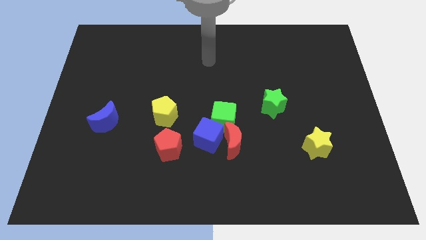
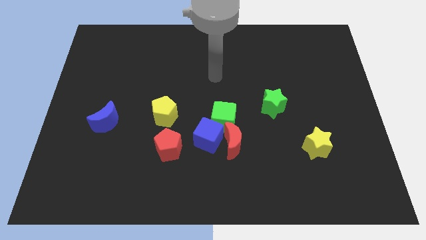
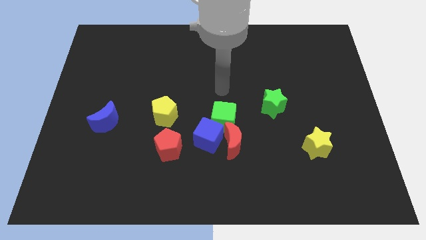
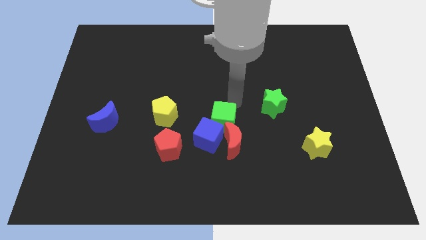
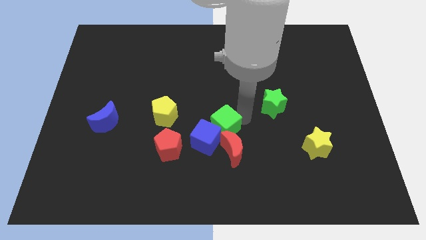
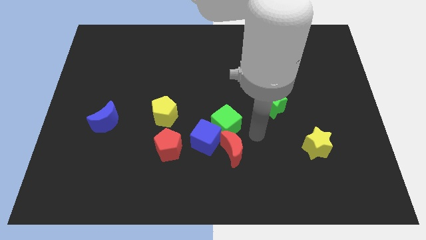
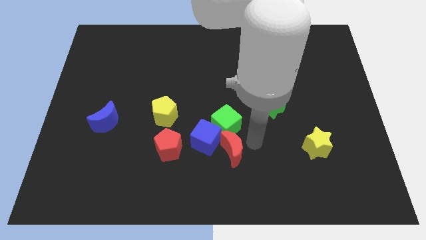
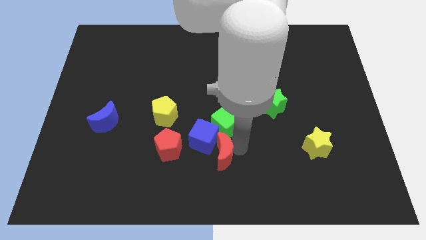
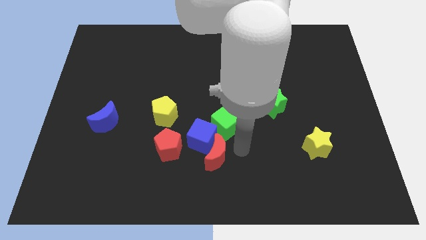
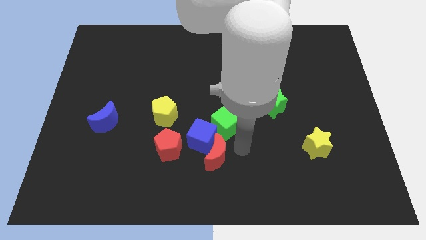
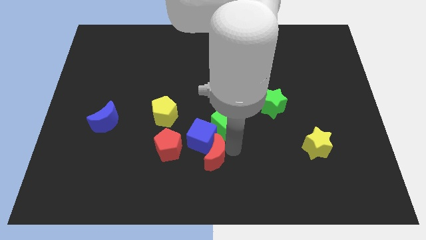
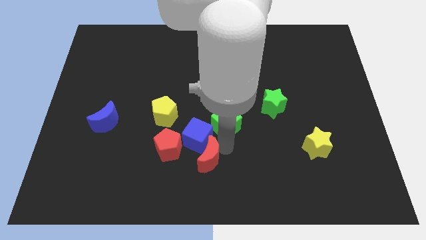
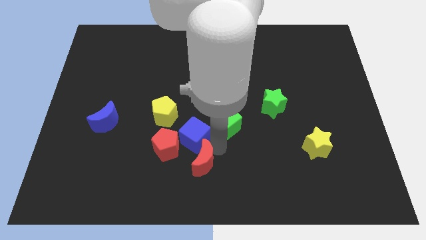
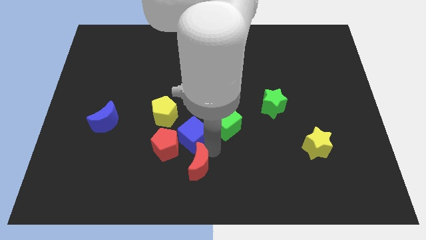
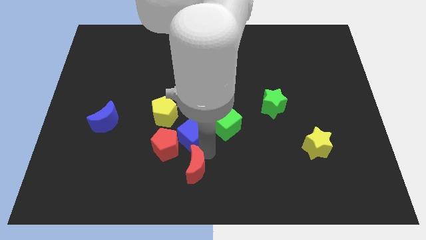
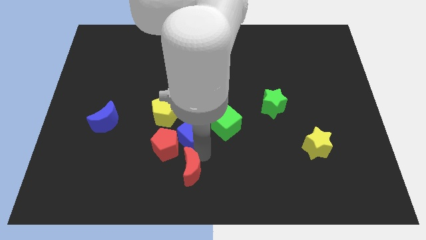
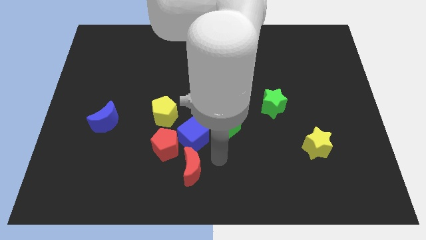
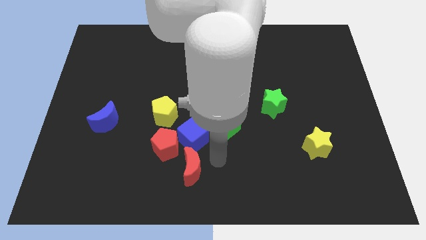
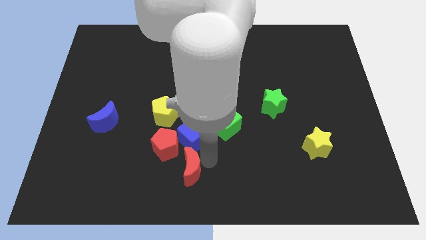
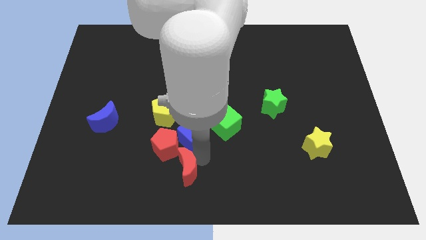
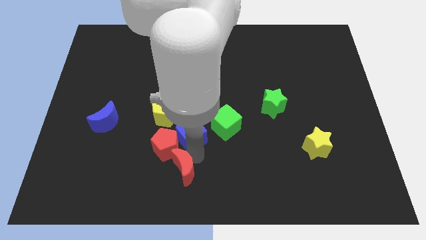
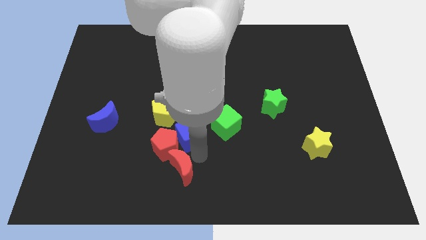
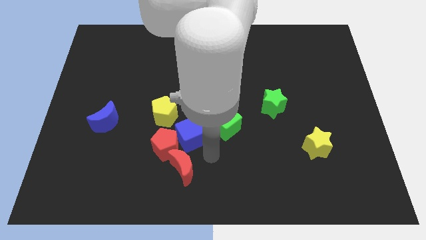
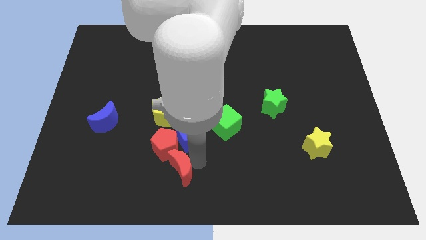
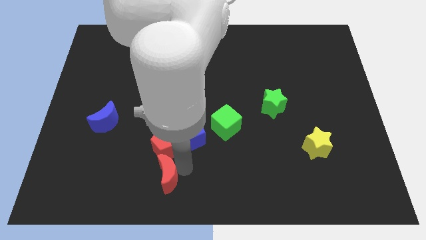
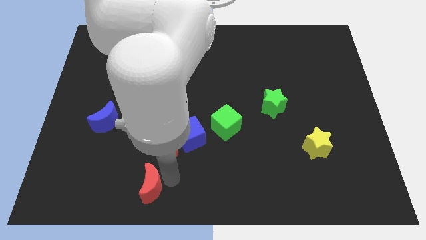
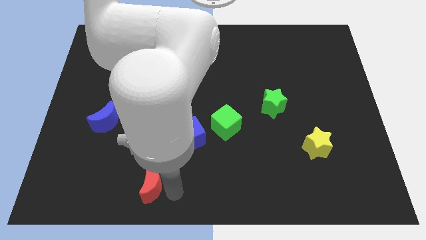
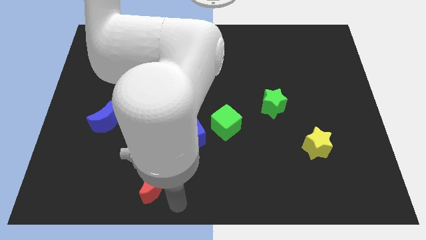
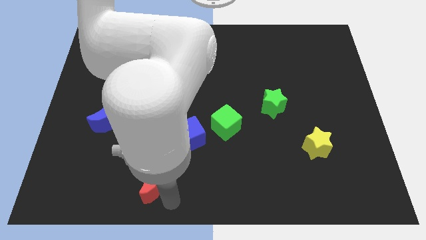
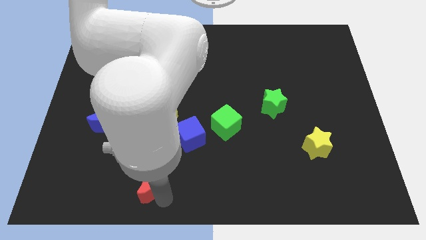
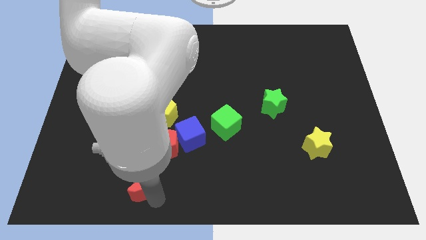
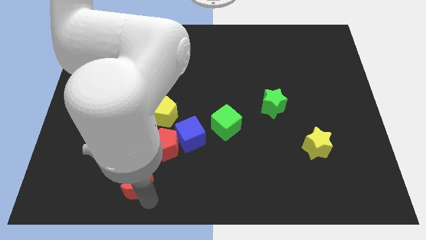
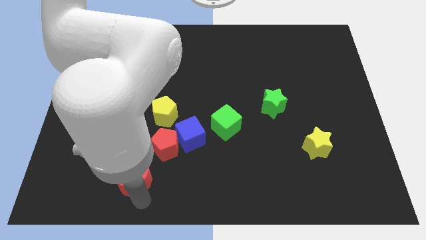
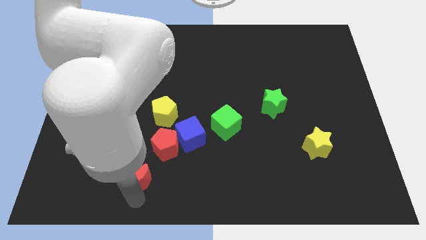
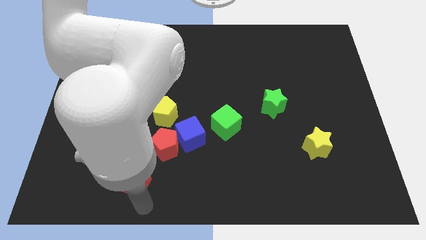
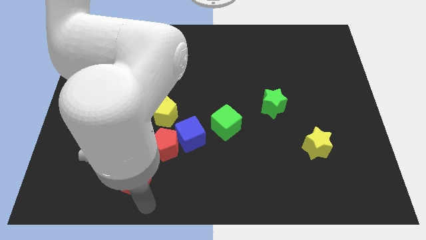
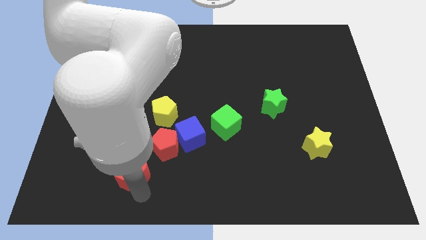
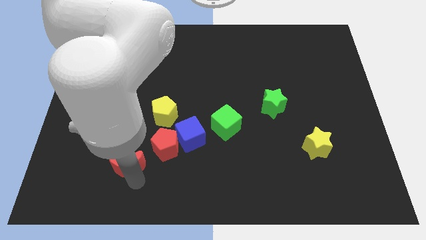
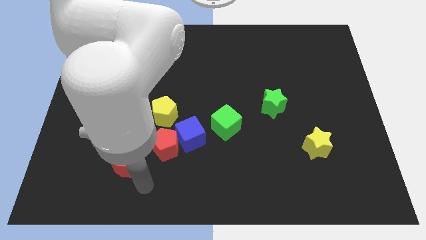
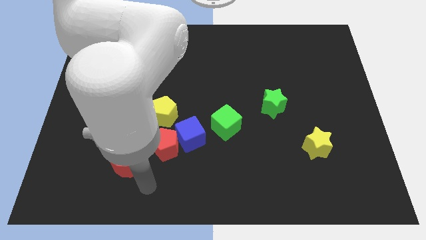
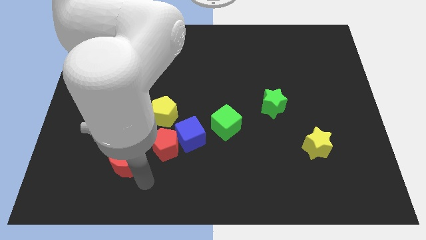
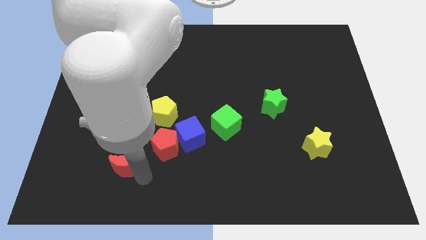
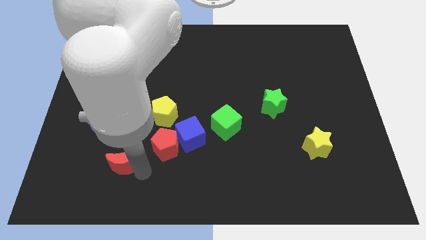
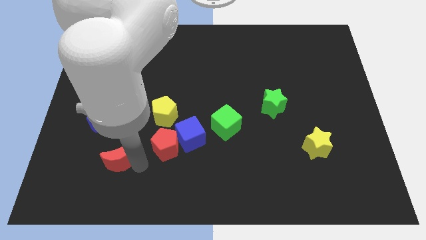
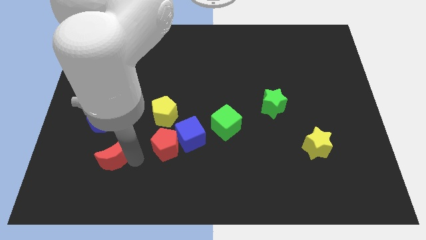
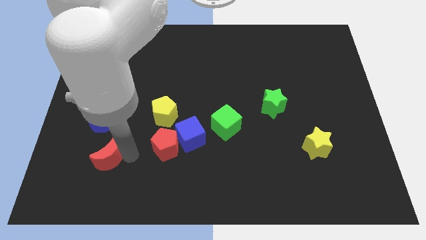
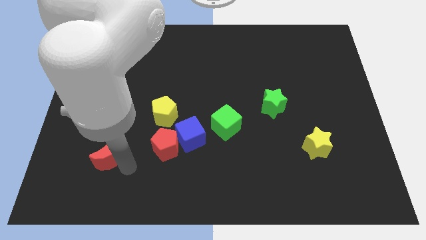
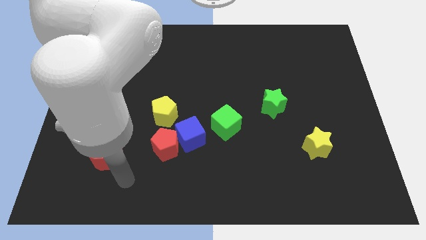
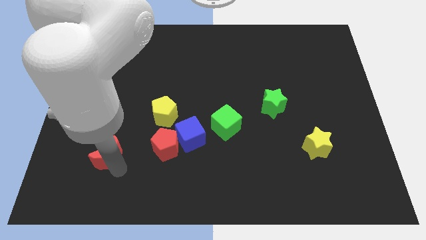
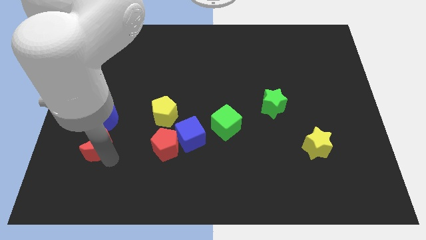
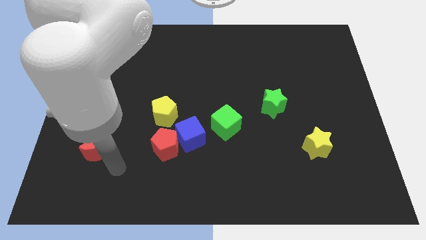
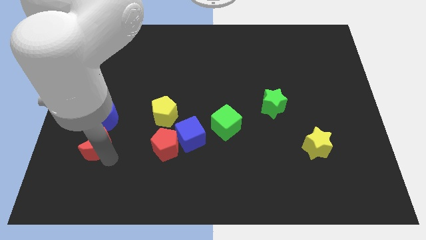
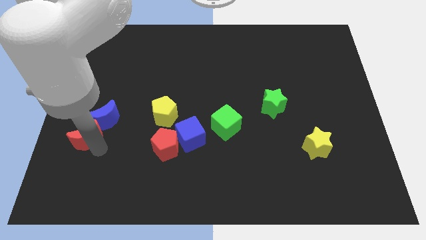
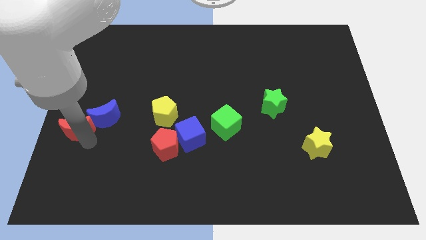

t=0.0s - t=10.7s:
move the red moon to the left side of the board

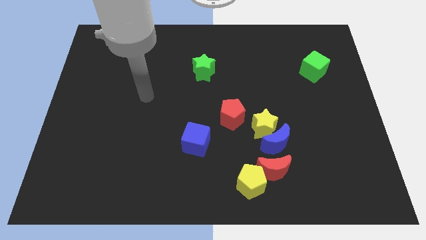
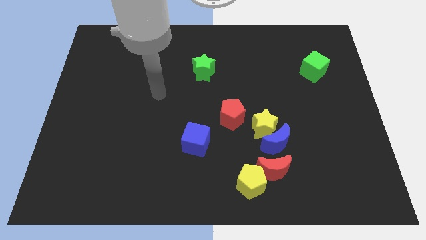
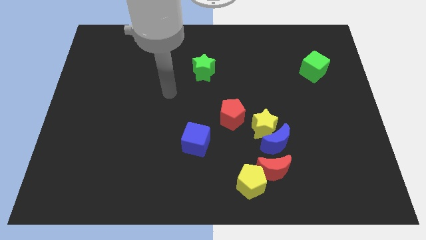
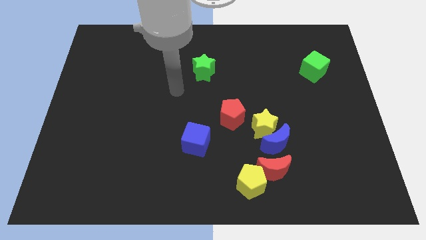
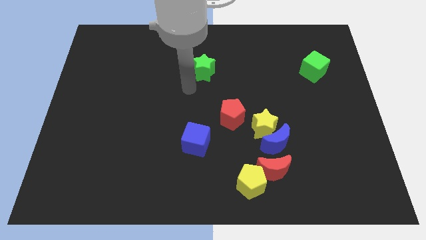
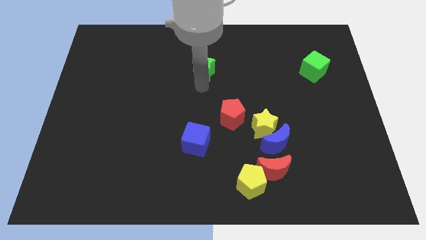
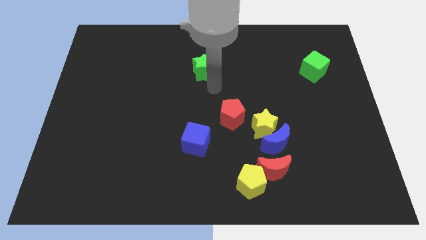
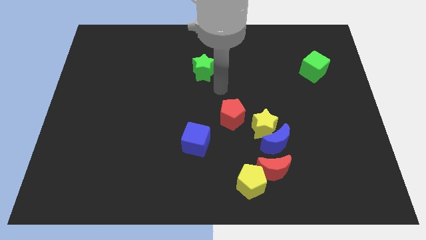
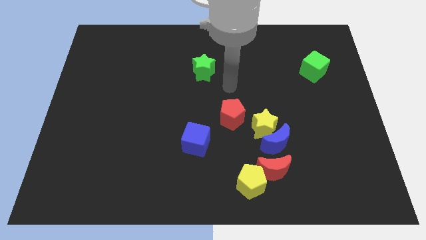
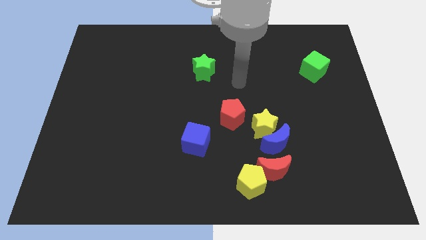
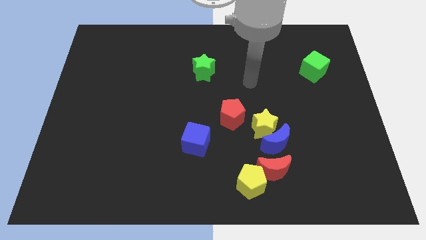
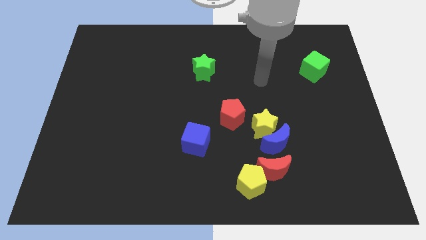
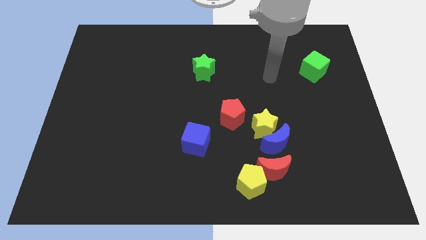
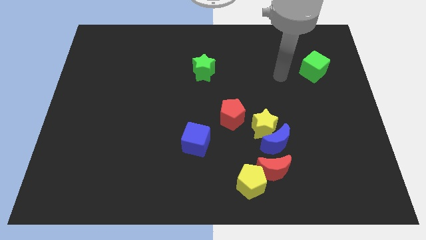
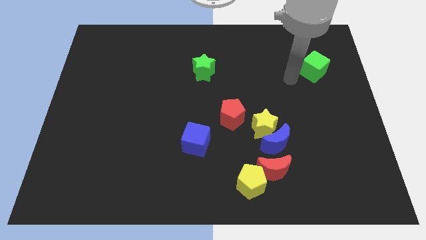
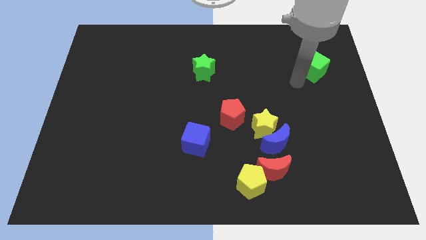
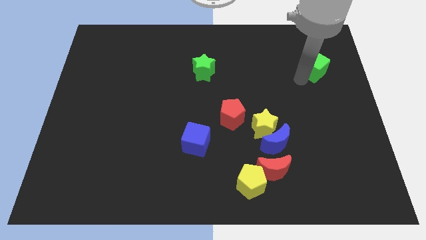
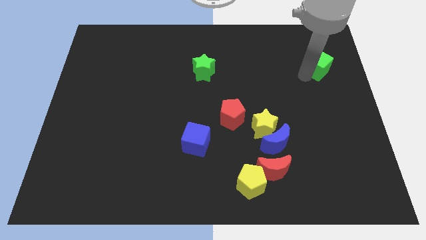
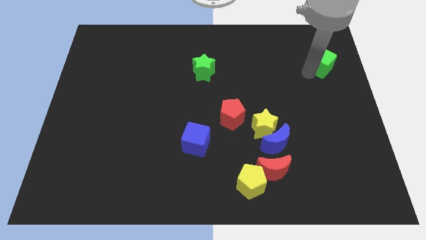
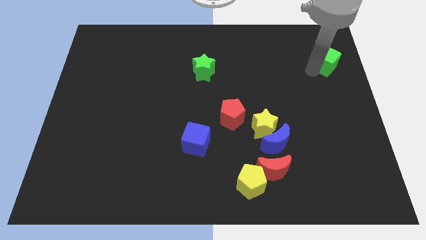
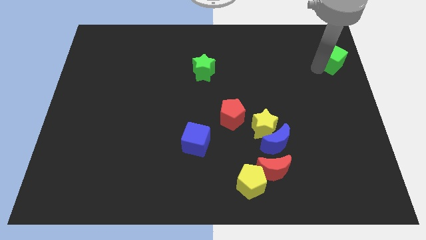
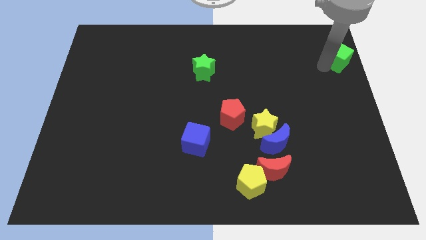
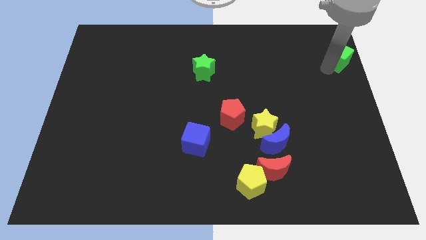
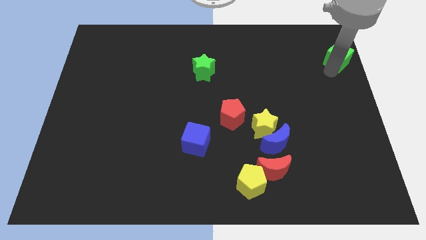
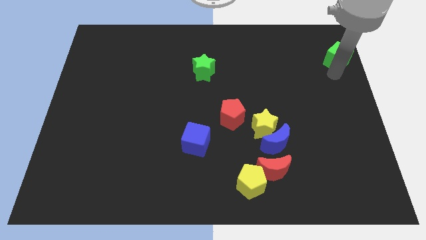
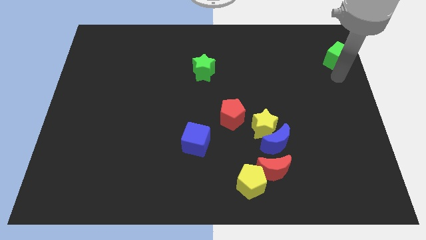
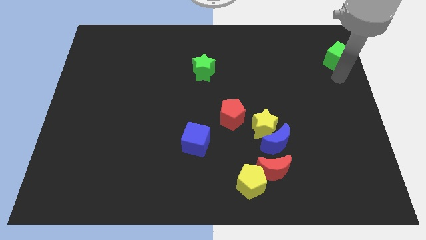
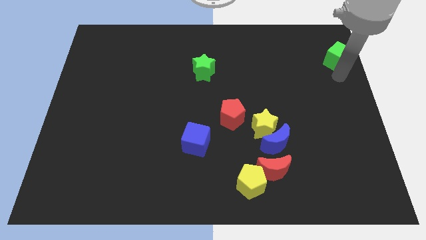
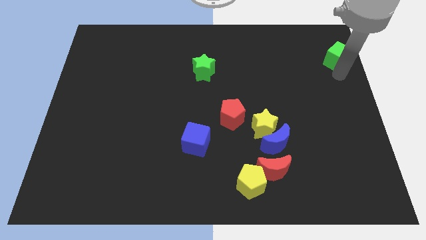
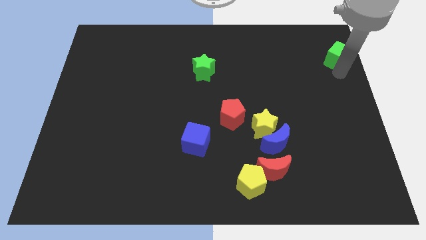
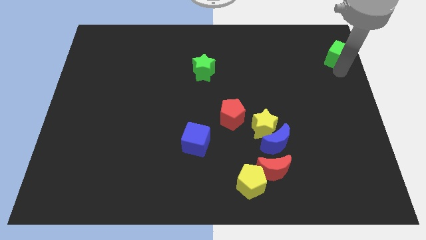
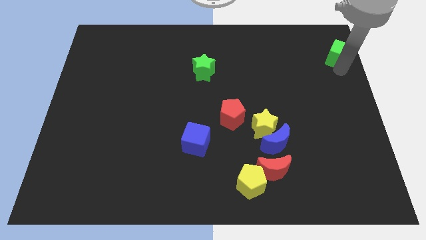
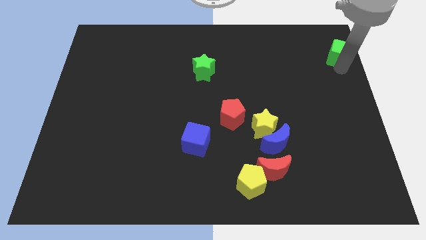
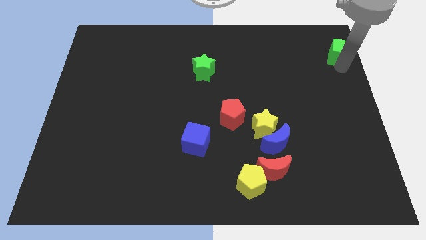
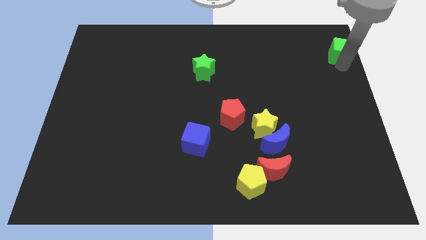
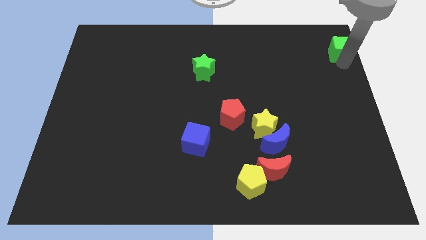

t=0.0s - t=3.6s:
slide the green cube to the top right
